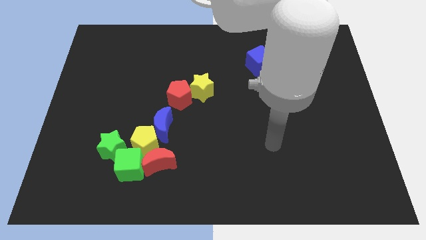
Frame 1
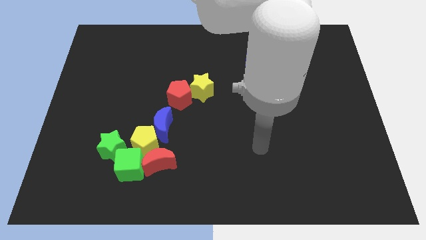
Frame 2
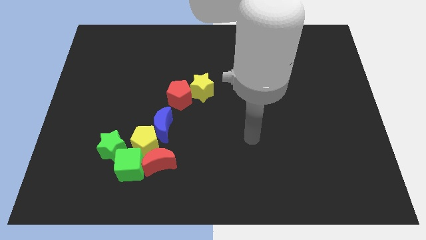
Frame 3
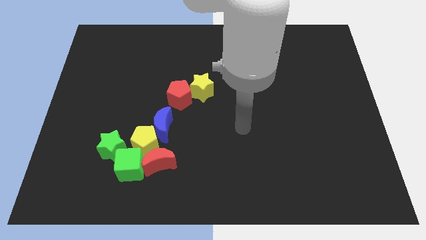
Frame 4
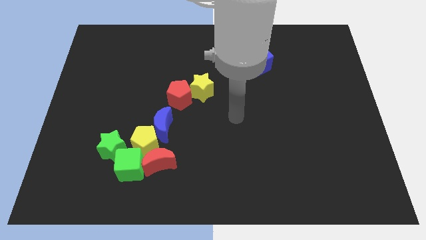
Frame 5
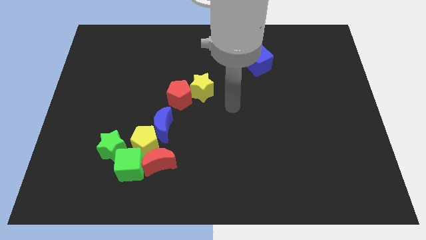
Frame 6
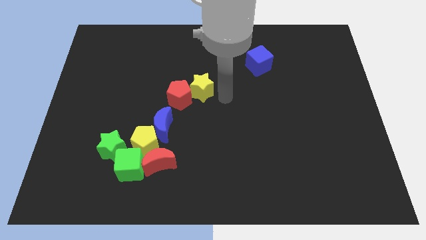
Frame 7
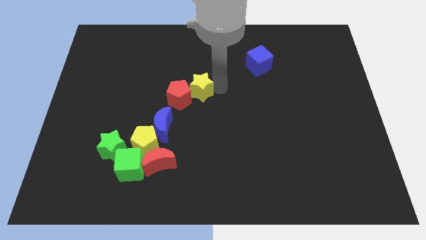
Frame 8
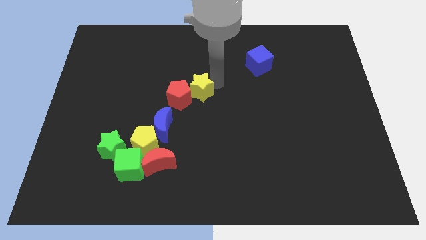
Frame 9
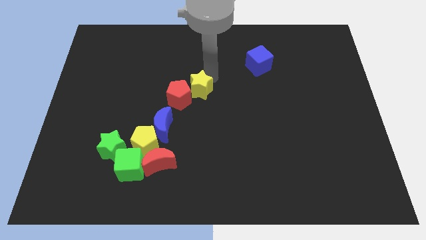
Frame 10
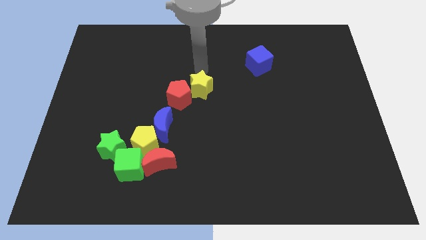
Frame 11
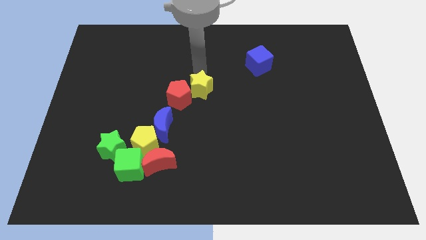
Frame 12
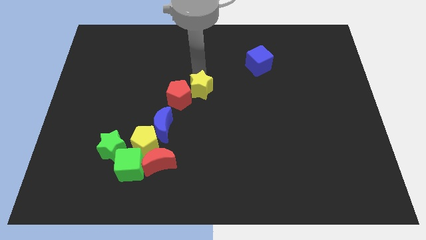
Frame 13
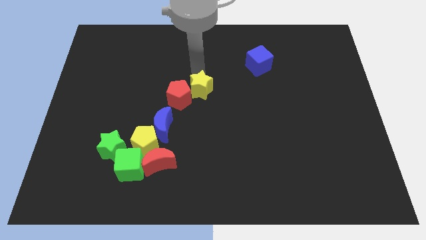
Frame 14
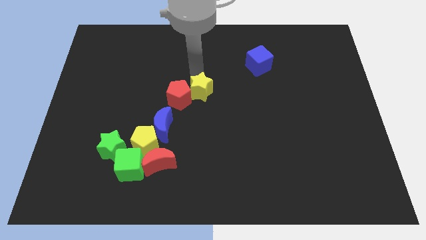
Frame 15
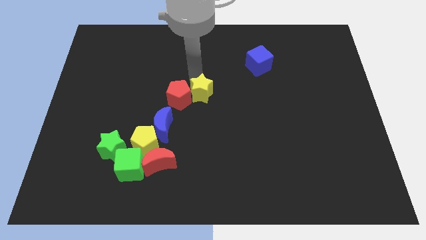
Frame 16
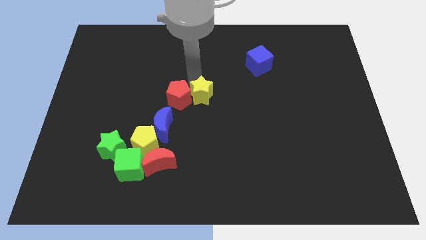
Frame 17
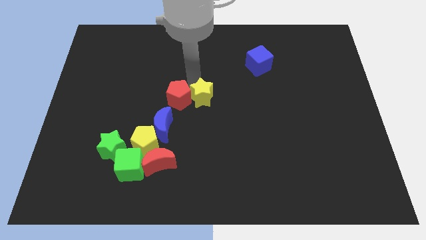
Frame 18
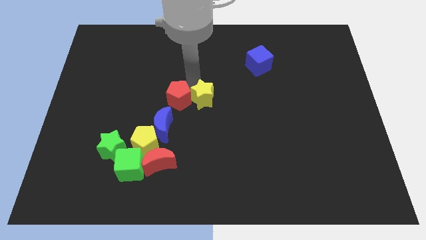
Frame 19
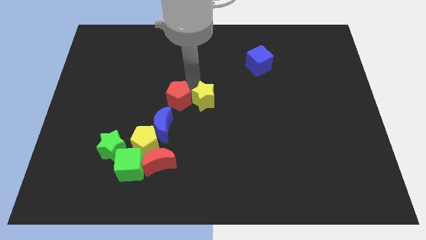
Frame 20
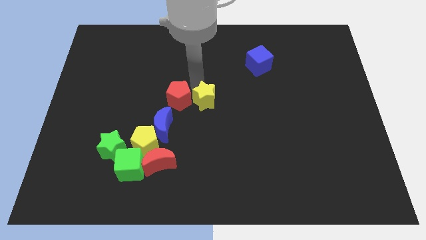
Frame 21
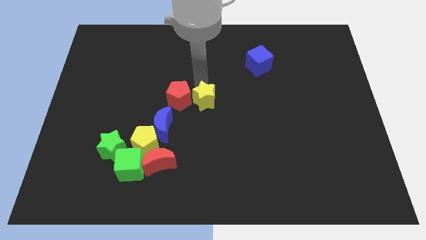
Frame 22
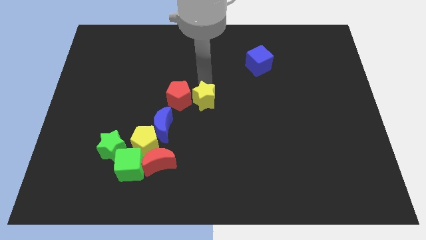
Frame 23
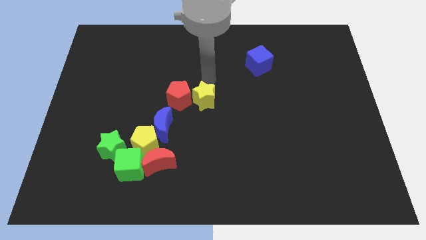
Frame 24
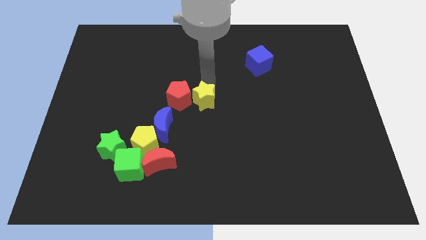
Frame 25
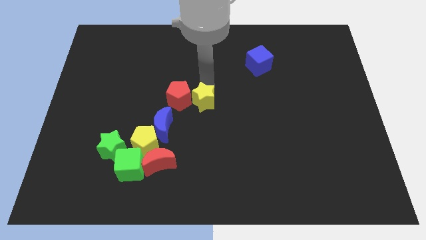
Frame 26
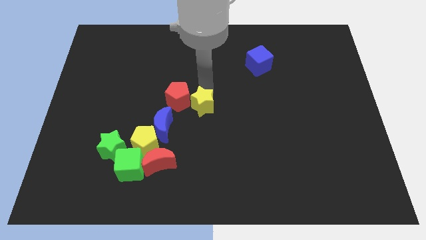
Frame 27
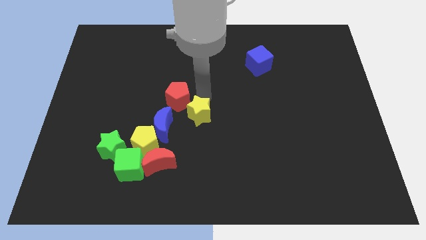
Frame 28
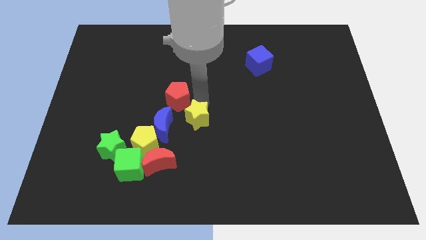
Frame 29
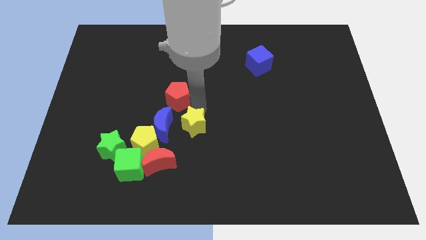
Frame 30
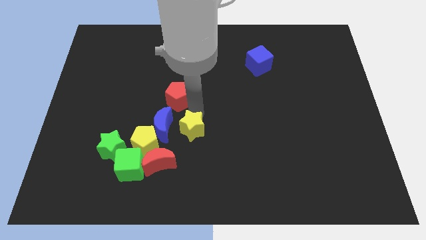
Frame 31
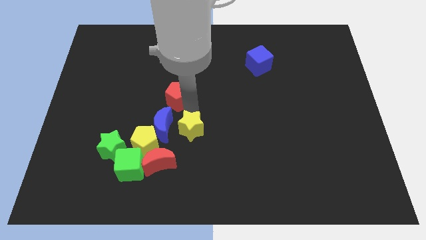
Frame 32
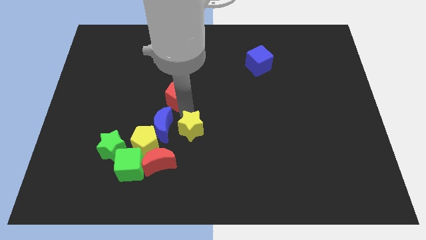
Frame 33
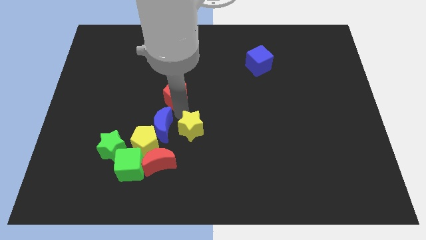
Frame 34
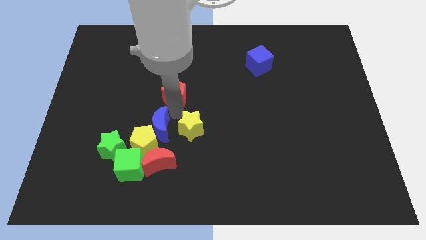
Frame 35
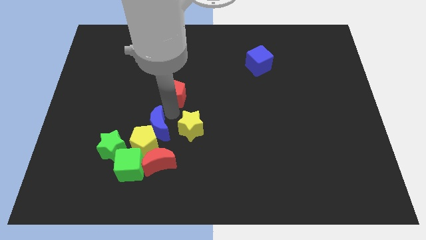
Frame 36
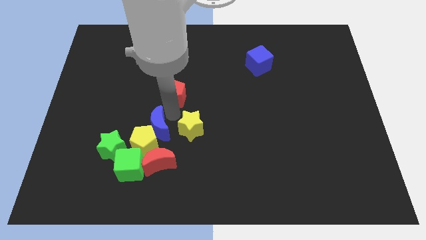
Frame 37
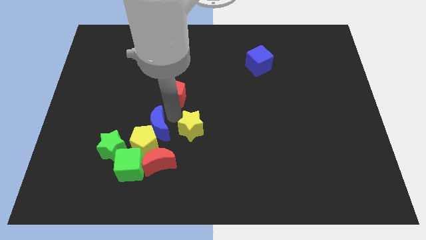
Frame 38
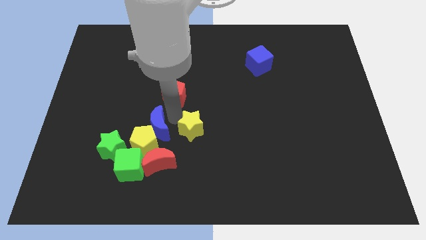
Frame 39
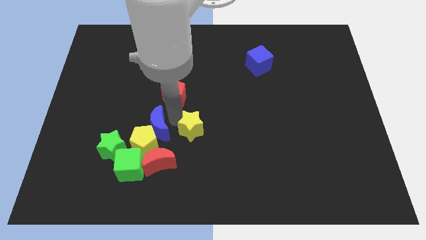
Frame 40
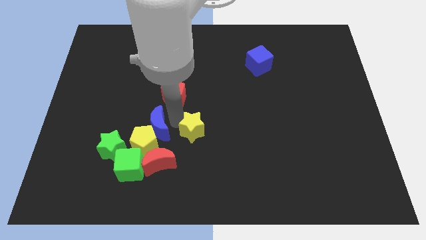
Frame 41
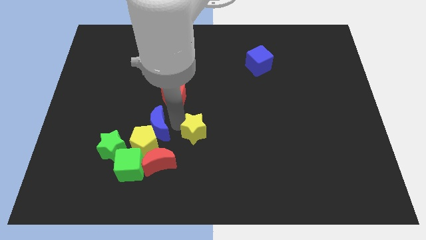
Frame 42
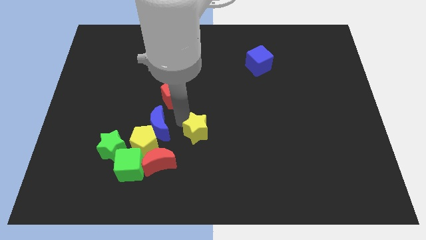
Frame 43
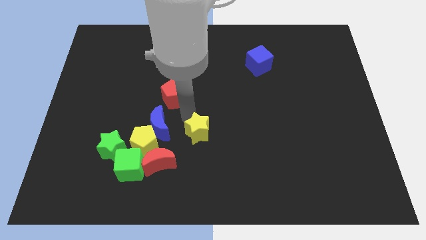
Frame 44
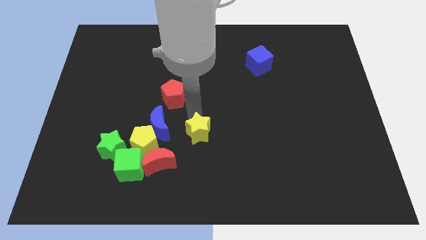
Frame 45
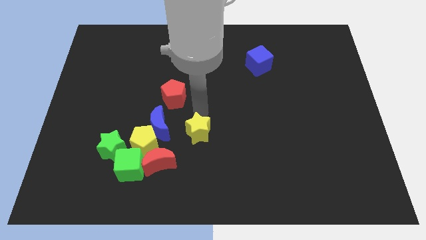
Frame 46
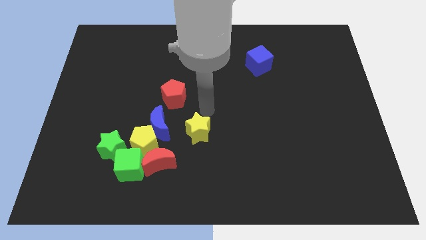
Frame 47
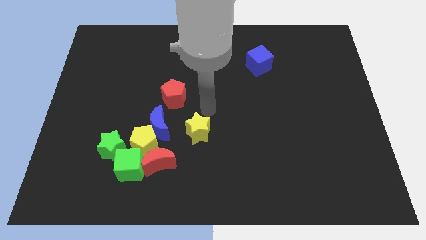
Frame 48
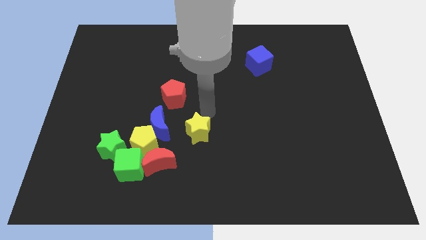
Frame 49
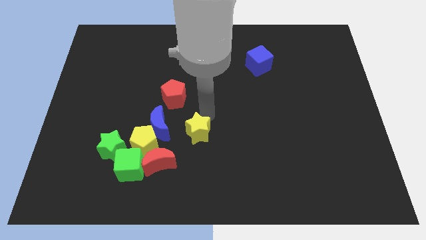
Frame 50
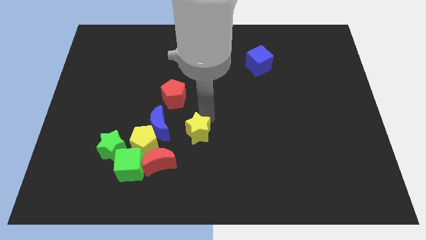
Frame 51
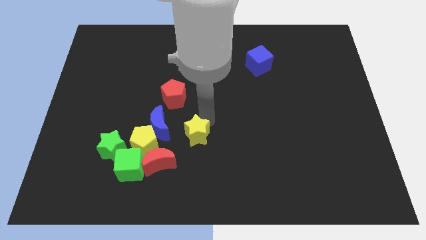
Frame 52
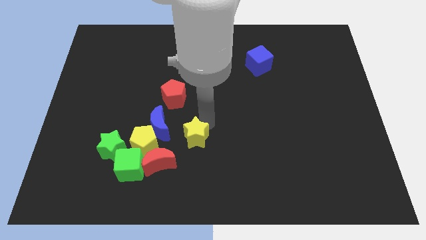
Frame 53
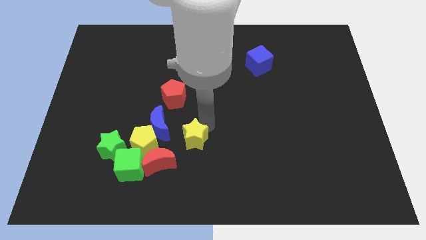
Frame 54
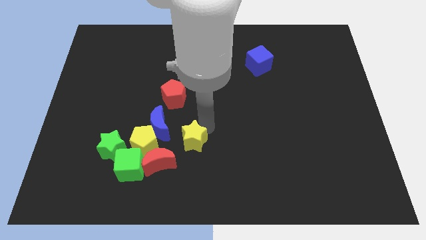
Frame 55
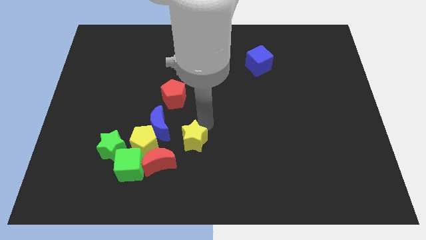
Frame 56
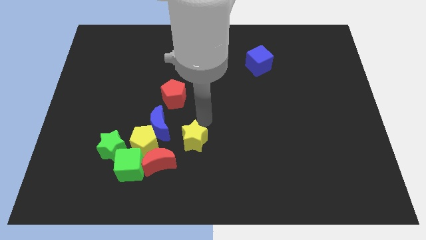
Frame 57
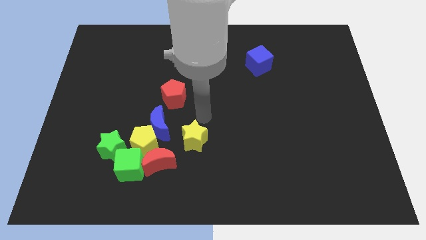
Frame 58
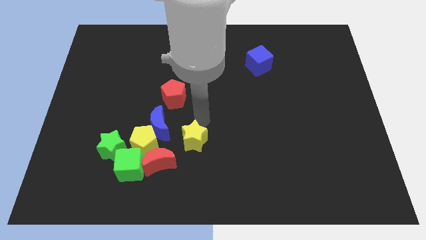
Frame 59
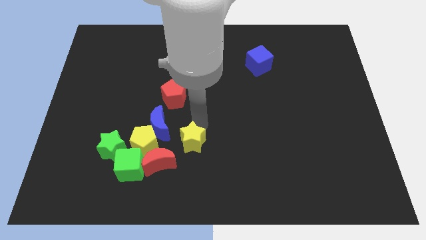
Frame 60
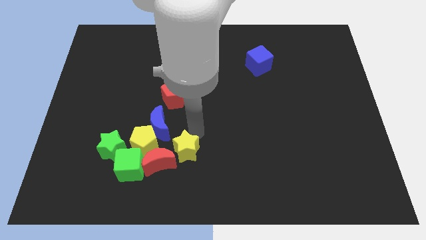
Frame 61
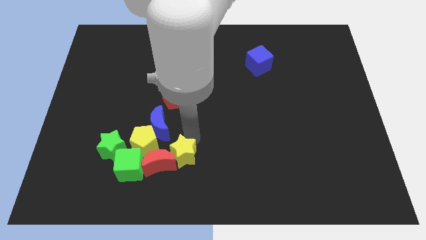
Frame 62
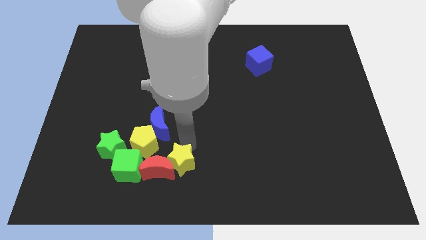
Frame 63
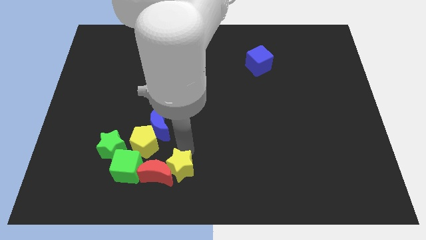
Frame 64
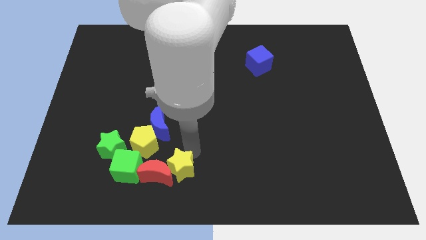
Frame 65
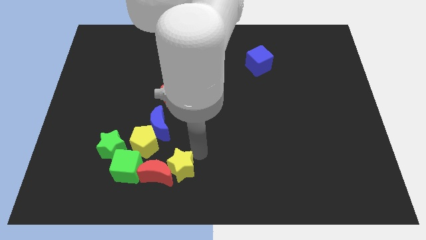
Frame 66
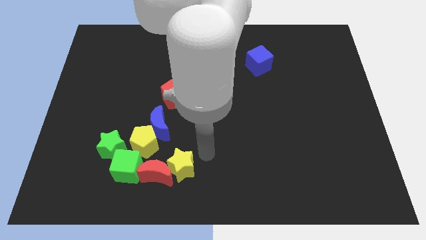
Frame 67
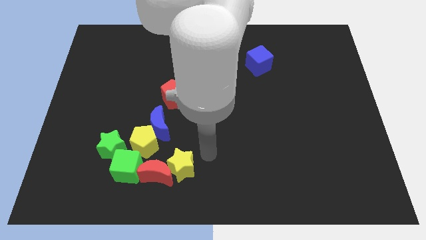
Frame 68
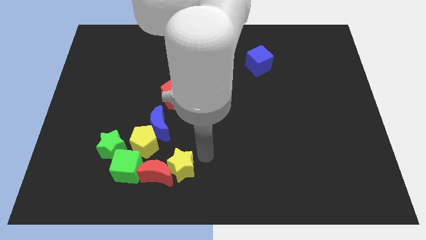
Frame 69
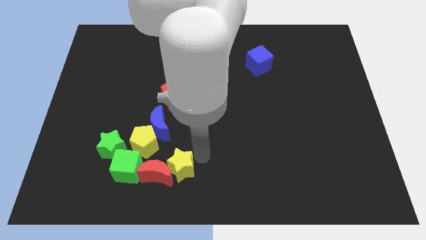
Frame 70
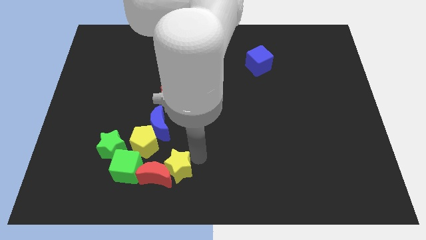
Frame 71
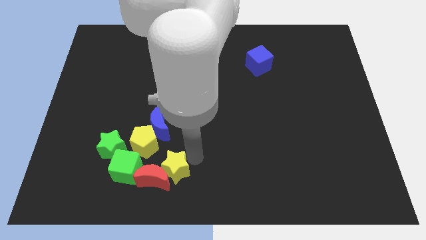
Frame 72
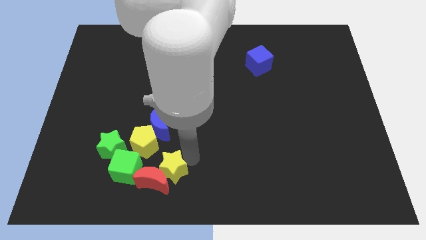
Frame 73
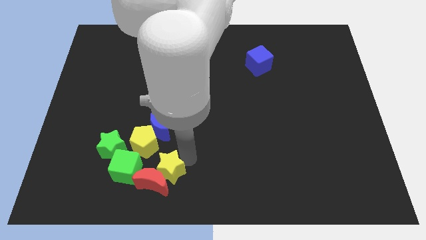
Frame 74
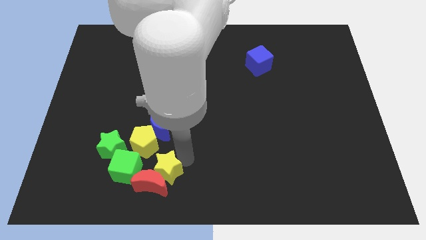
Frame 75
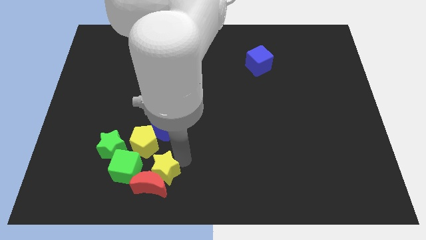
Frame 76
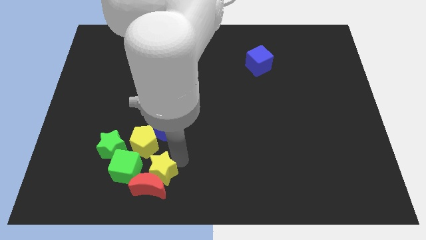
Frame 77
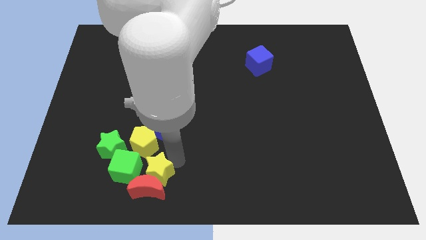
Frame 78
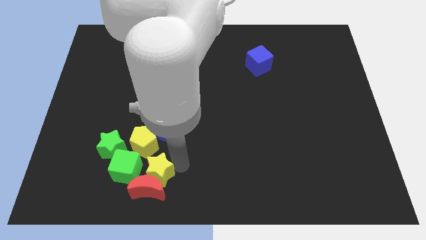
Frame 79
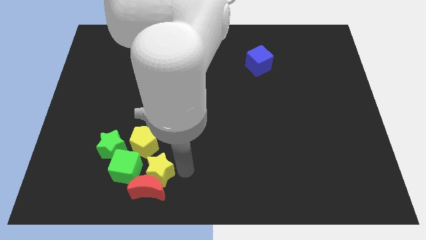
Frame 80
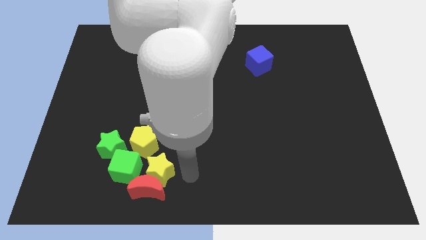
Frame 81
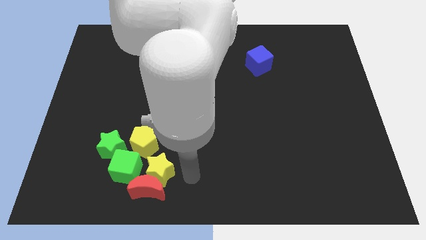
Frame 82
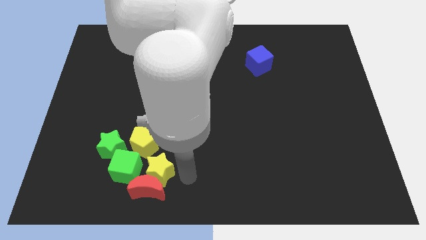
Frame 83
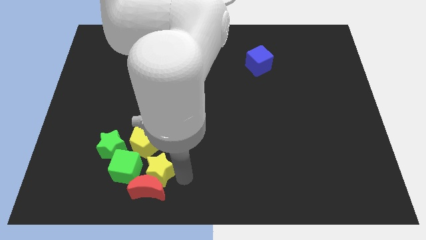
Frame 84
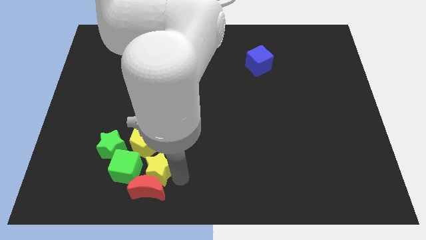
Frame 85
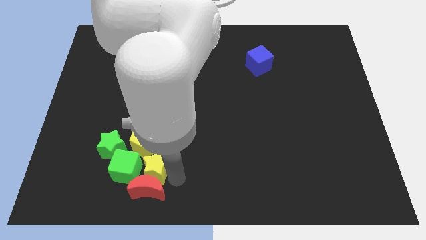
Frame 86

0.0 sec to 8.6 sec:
put the yellow star next to the green cube
